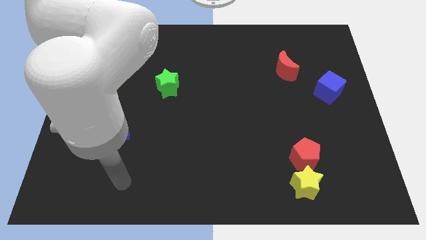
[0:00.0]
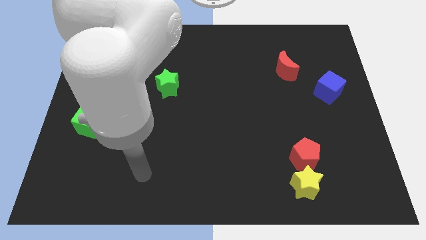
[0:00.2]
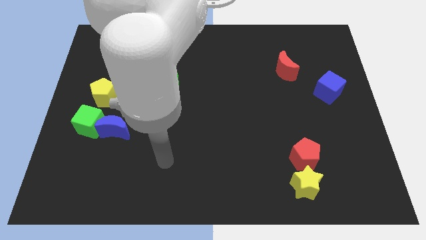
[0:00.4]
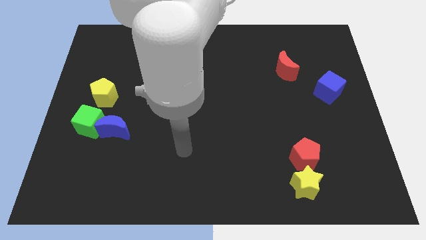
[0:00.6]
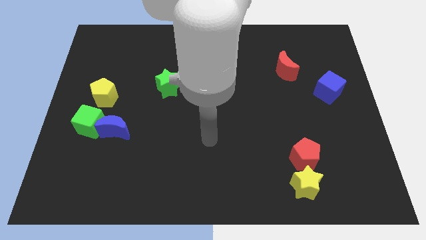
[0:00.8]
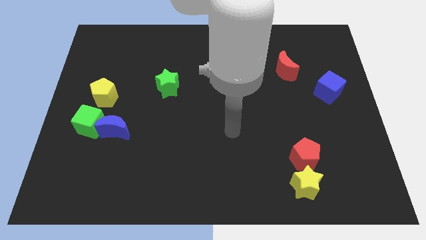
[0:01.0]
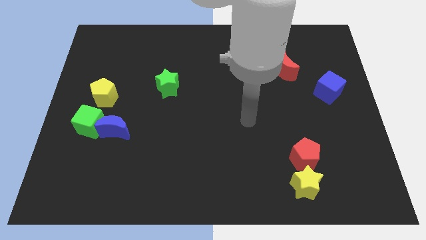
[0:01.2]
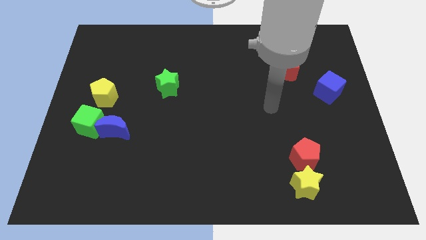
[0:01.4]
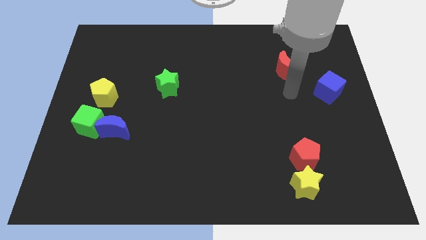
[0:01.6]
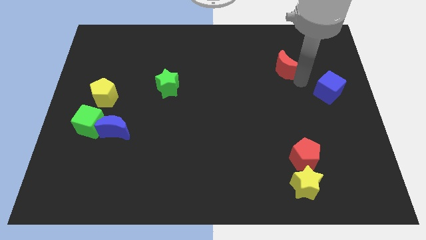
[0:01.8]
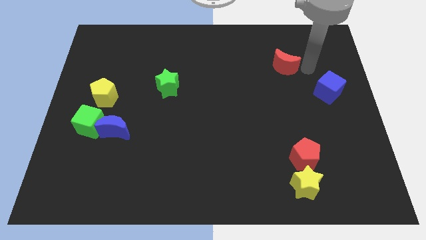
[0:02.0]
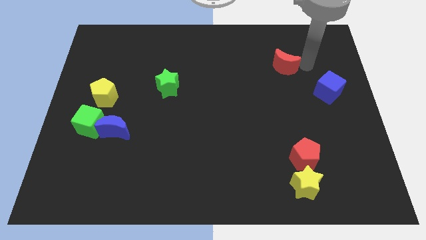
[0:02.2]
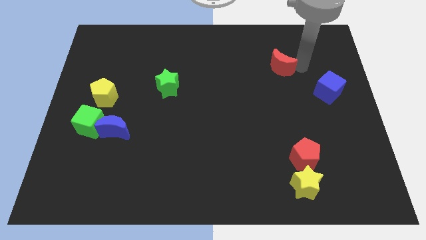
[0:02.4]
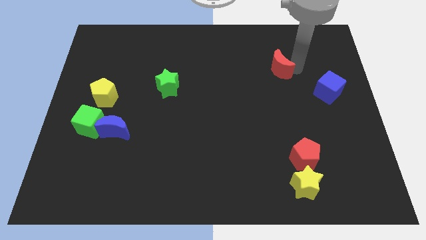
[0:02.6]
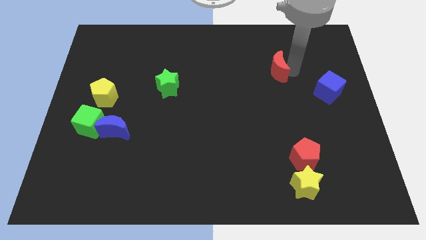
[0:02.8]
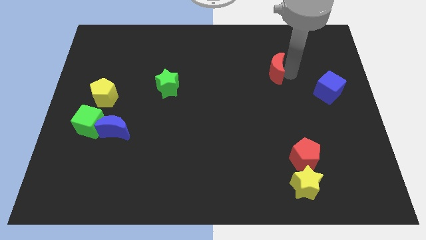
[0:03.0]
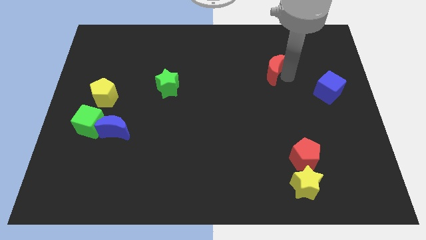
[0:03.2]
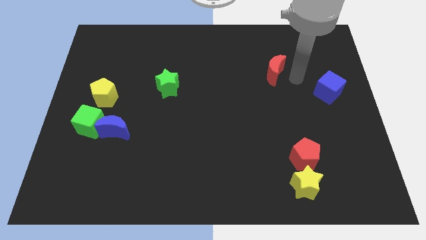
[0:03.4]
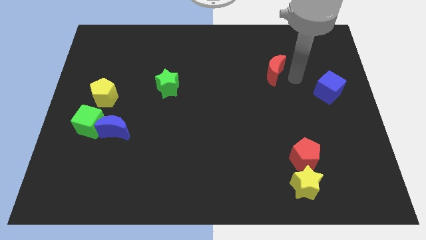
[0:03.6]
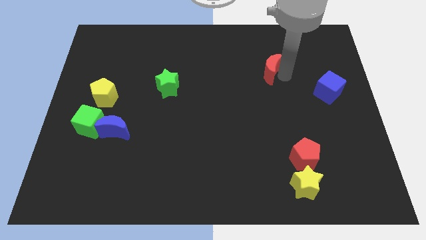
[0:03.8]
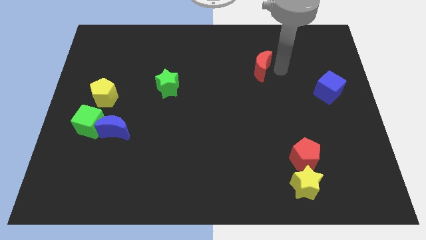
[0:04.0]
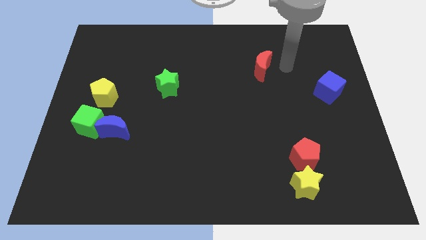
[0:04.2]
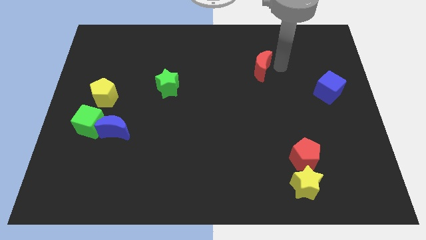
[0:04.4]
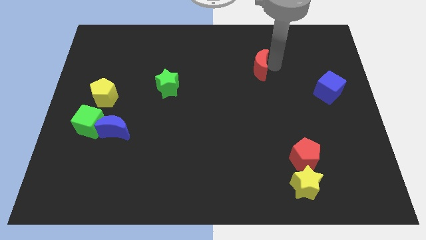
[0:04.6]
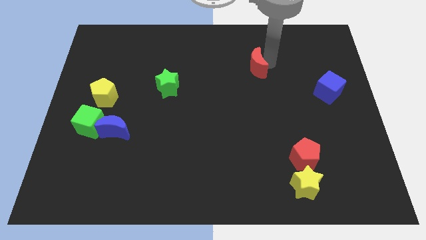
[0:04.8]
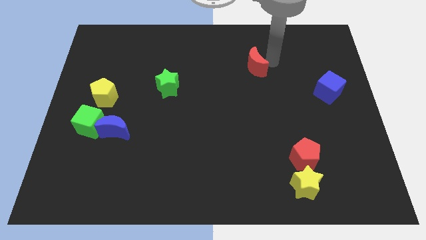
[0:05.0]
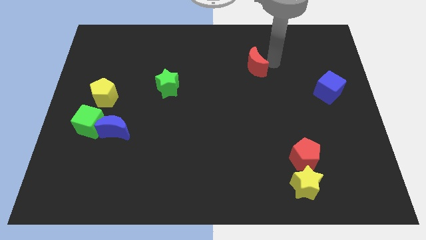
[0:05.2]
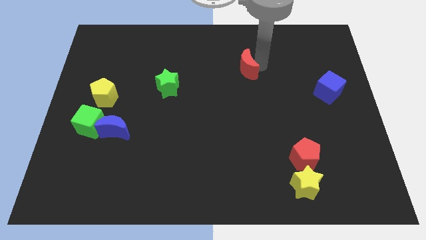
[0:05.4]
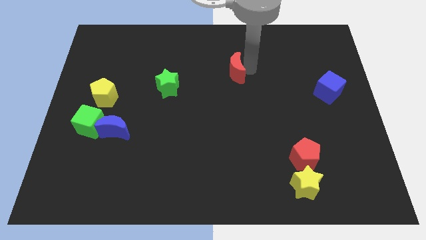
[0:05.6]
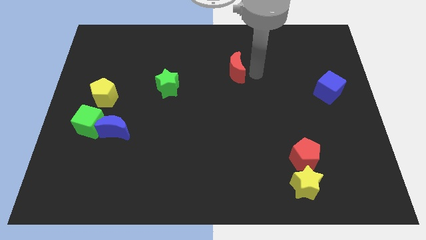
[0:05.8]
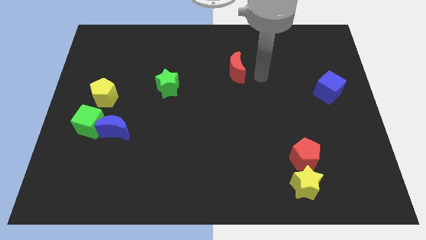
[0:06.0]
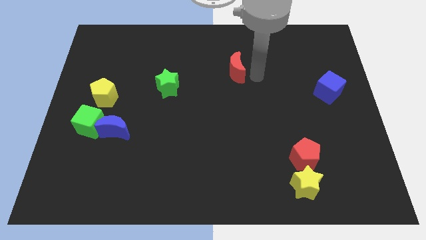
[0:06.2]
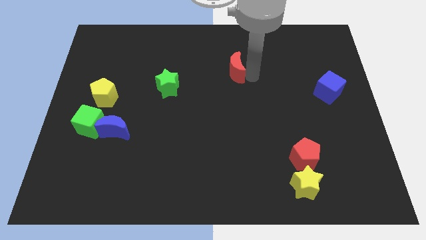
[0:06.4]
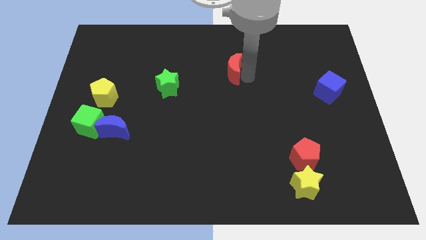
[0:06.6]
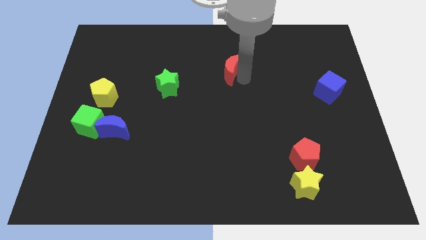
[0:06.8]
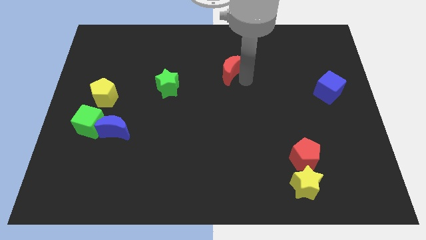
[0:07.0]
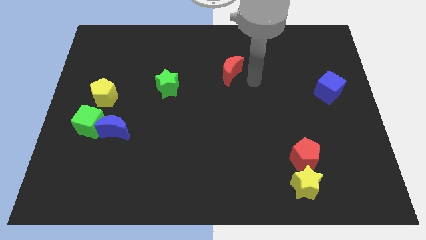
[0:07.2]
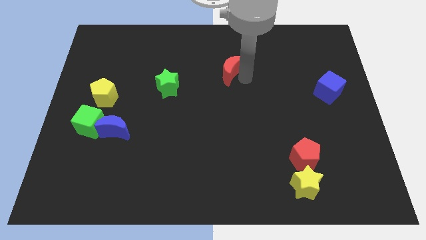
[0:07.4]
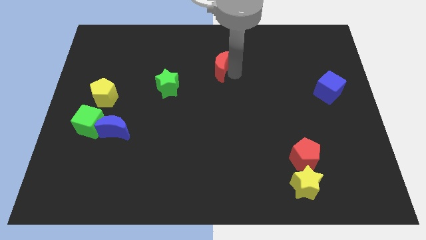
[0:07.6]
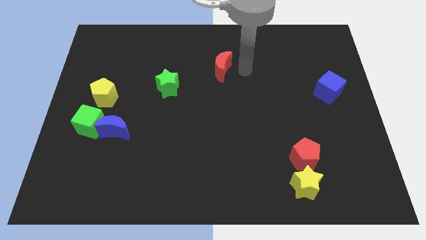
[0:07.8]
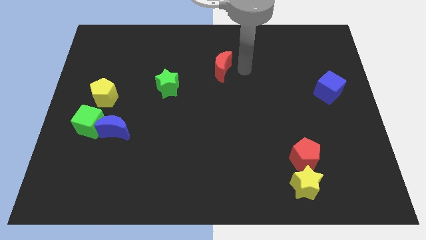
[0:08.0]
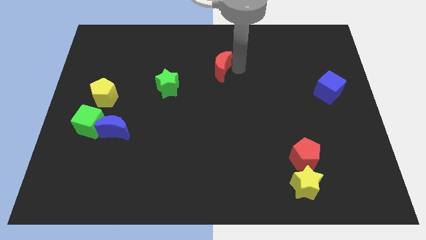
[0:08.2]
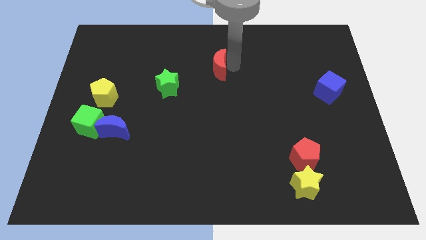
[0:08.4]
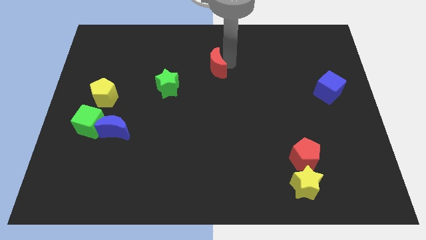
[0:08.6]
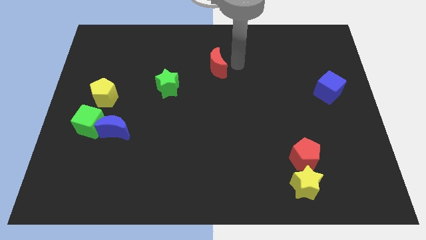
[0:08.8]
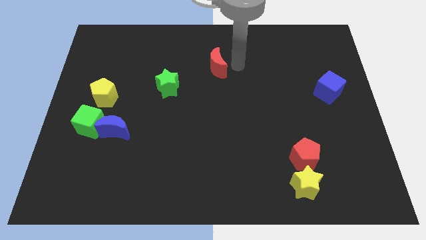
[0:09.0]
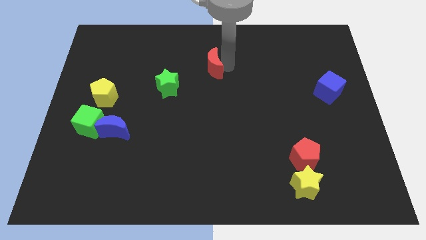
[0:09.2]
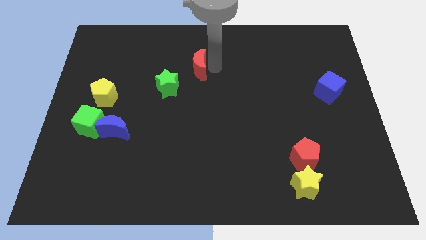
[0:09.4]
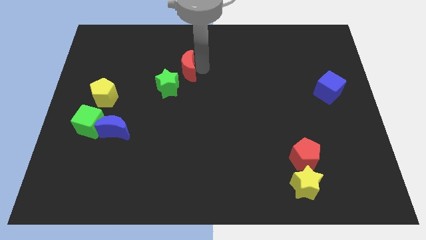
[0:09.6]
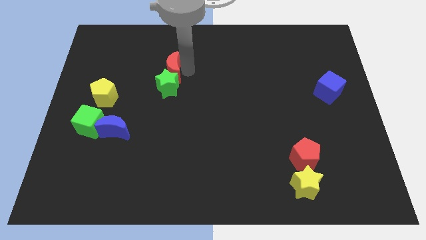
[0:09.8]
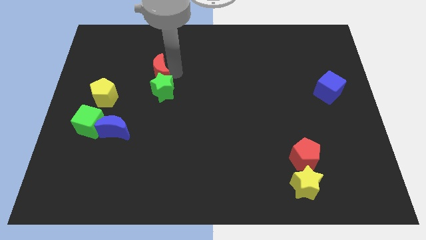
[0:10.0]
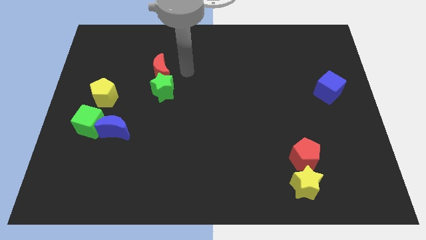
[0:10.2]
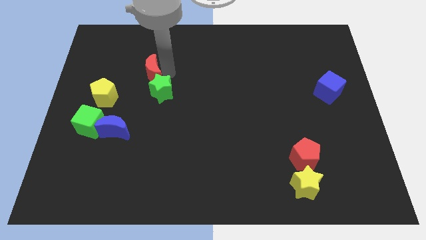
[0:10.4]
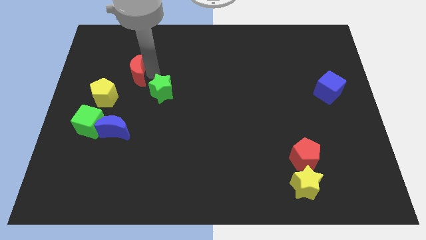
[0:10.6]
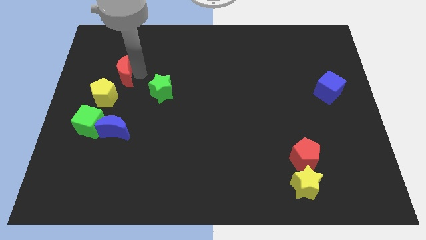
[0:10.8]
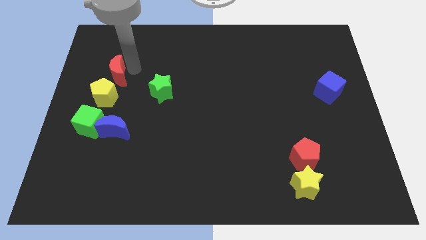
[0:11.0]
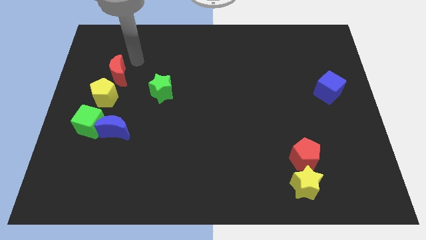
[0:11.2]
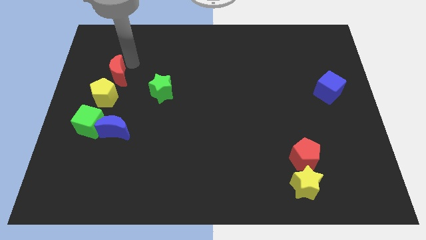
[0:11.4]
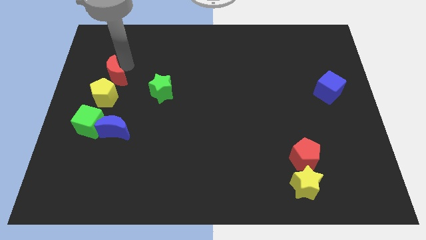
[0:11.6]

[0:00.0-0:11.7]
put the red moon above the green cube

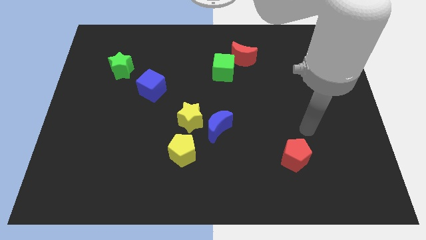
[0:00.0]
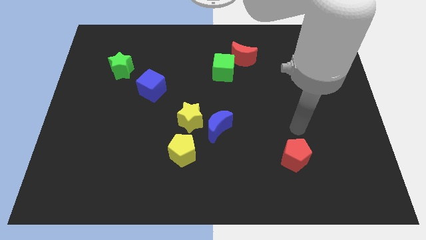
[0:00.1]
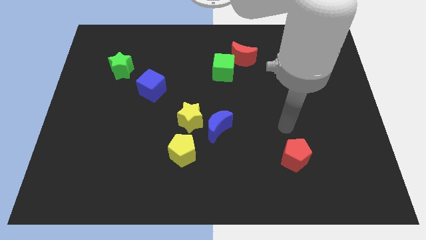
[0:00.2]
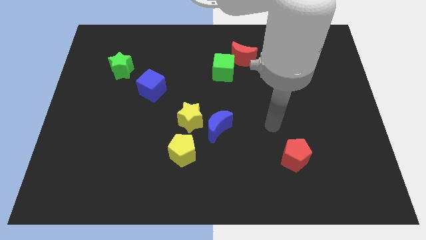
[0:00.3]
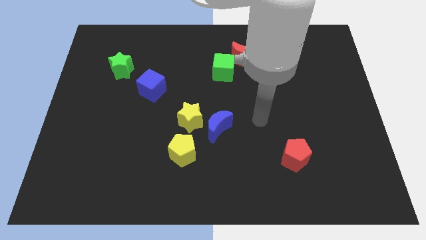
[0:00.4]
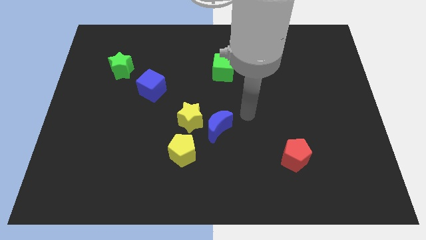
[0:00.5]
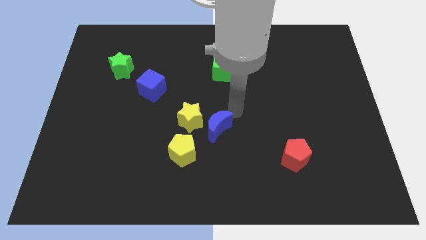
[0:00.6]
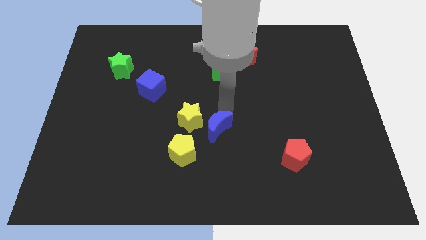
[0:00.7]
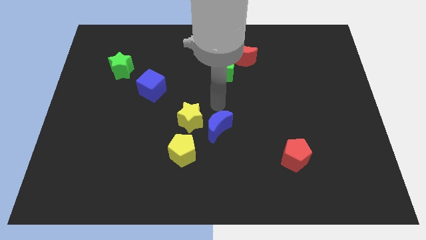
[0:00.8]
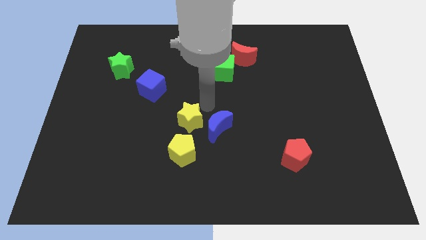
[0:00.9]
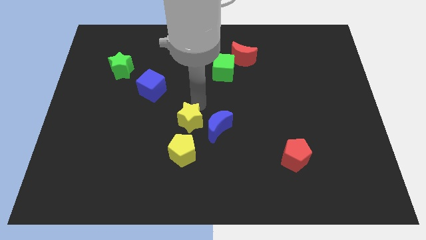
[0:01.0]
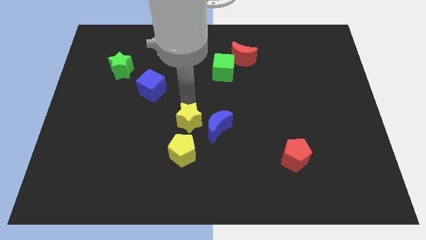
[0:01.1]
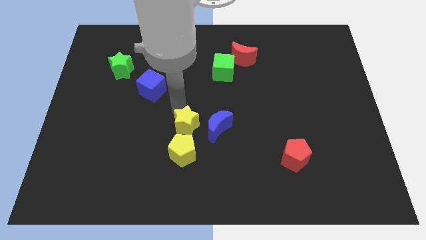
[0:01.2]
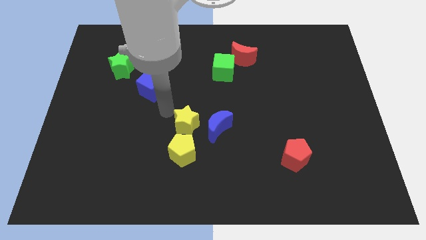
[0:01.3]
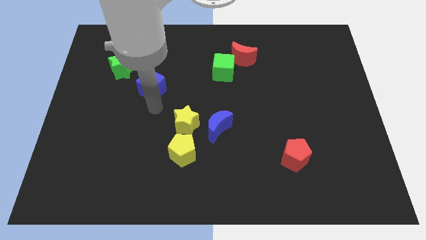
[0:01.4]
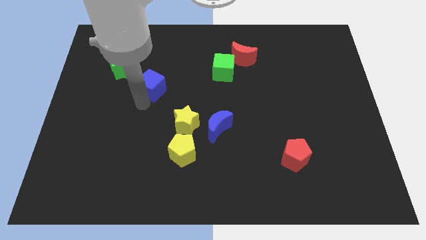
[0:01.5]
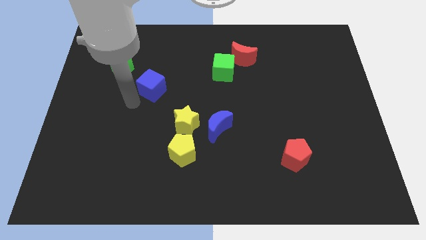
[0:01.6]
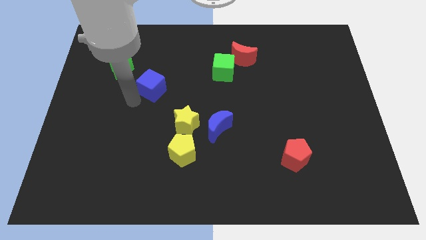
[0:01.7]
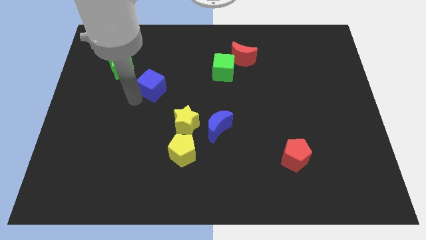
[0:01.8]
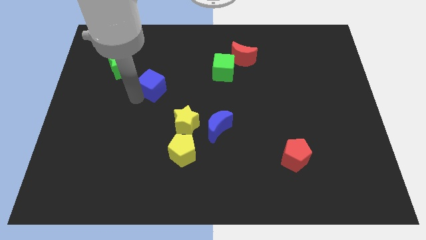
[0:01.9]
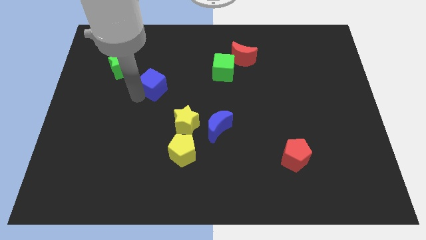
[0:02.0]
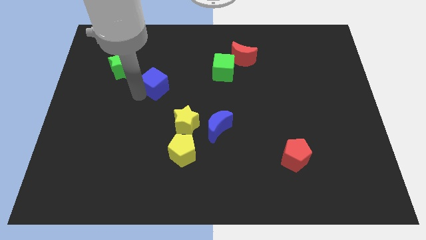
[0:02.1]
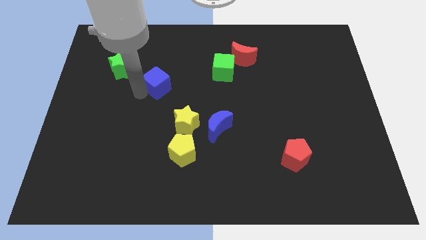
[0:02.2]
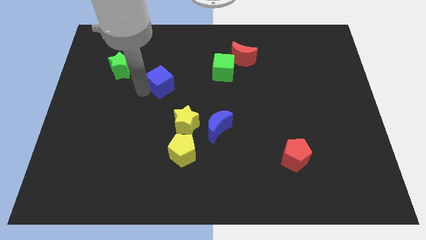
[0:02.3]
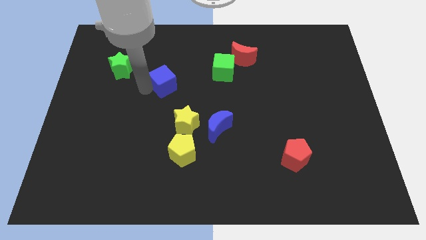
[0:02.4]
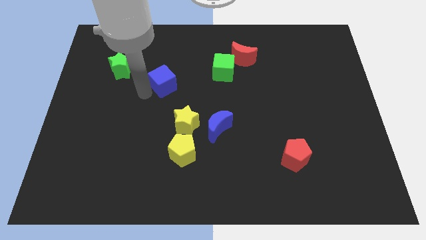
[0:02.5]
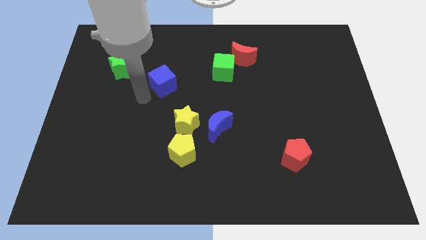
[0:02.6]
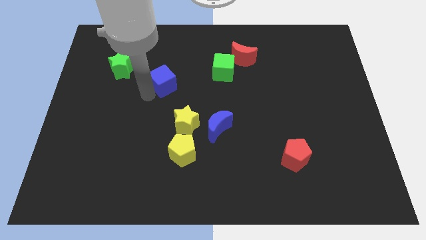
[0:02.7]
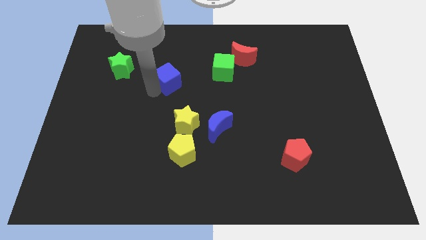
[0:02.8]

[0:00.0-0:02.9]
push the blue cube to the left of the green cube
